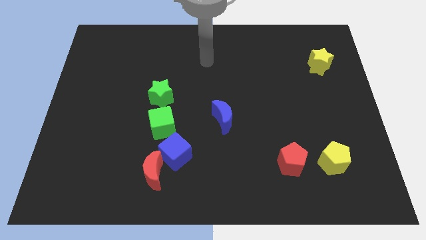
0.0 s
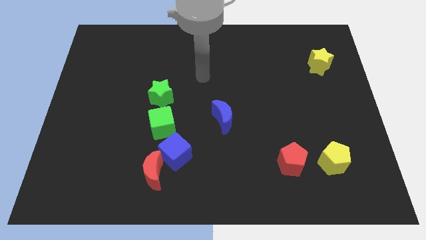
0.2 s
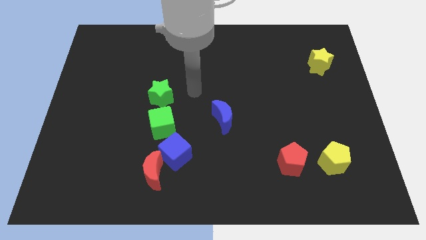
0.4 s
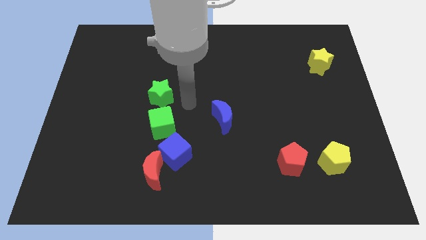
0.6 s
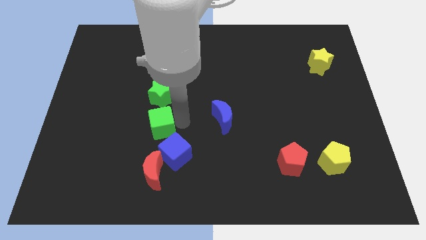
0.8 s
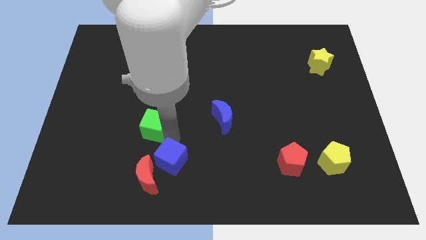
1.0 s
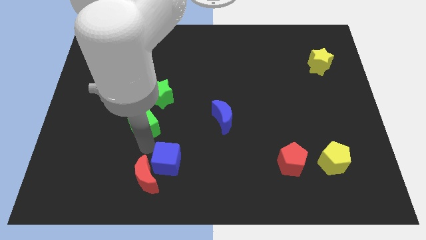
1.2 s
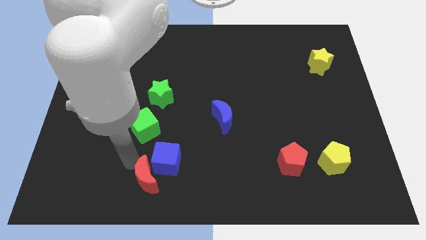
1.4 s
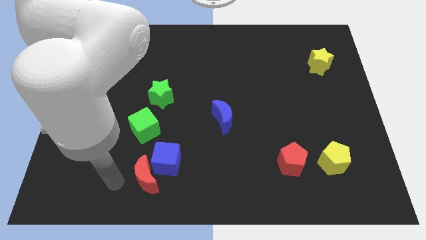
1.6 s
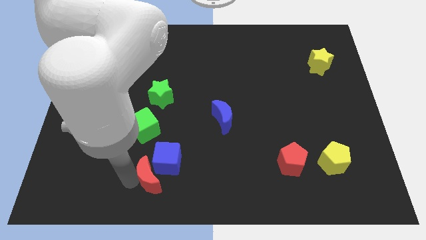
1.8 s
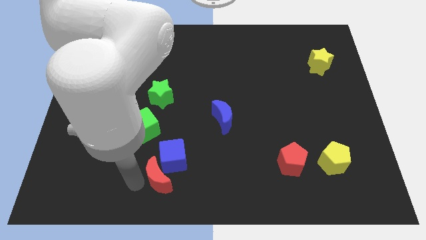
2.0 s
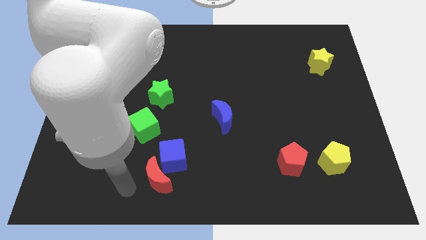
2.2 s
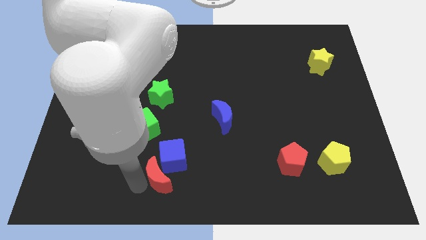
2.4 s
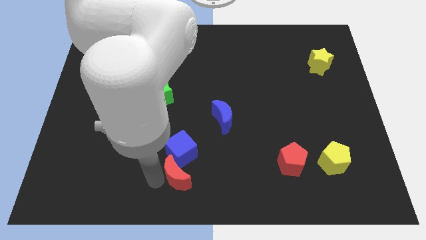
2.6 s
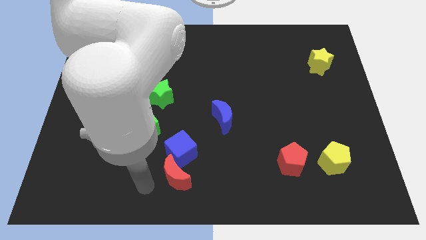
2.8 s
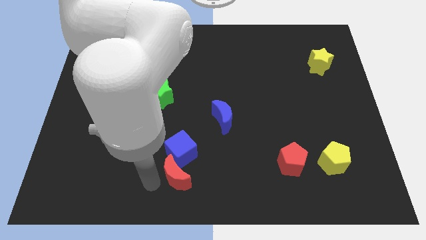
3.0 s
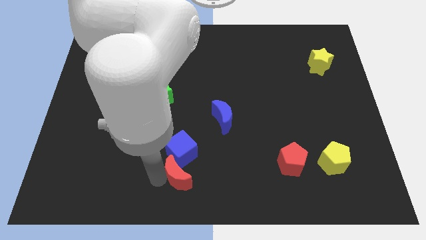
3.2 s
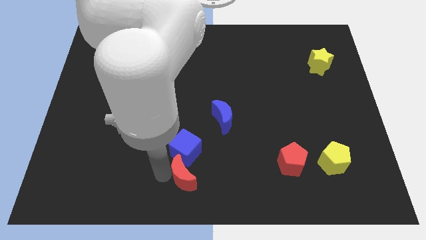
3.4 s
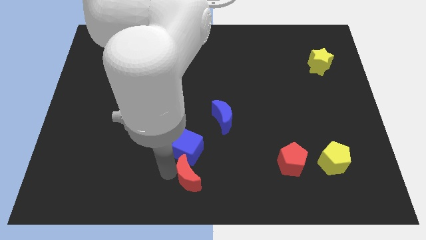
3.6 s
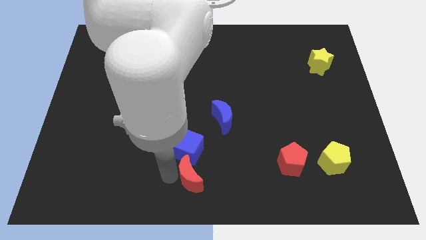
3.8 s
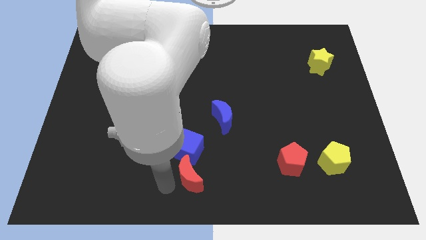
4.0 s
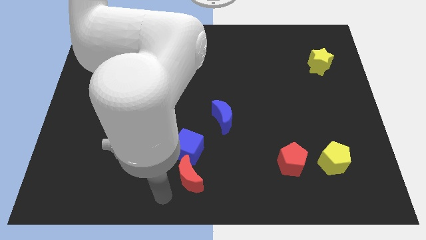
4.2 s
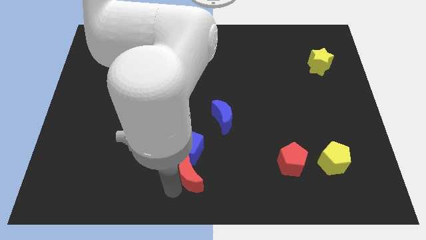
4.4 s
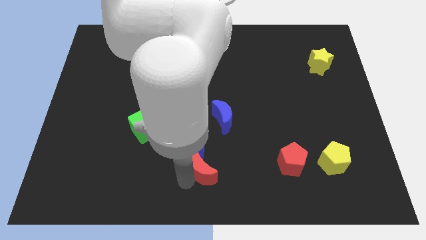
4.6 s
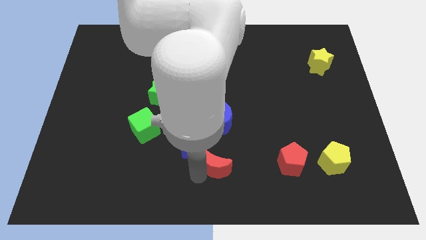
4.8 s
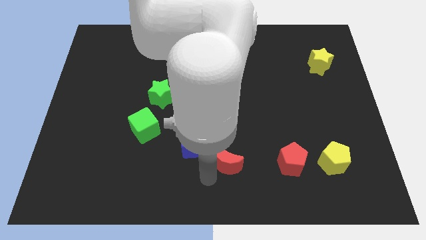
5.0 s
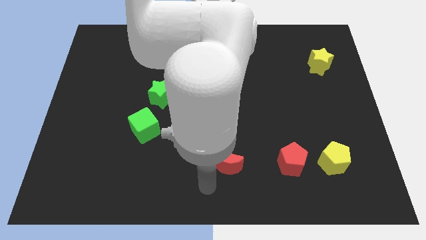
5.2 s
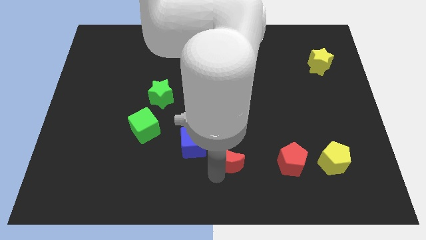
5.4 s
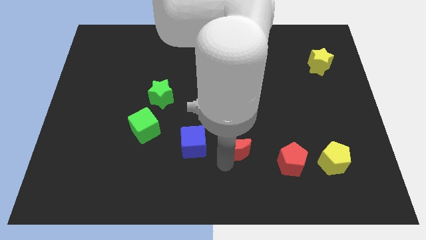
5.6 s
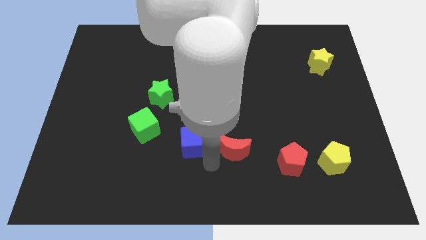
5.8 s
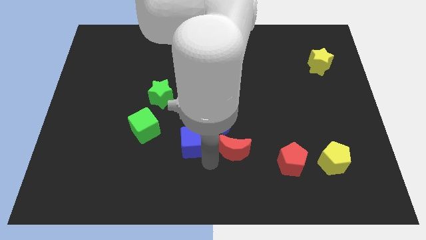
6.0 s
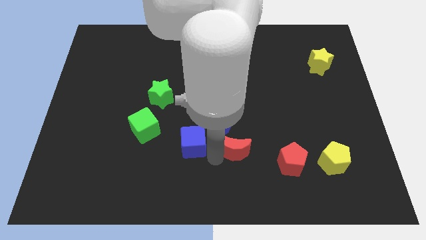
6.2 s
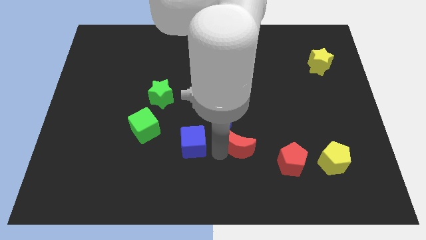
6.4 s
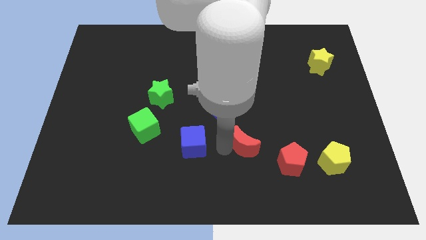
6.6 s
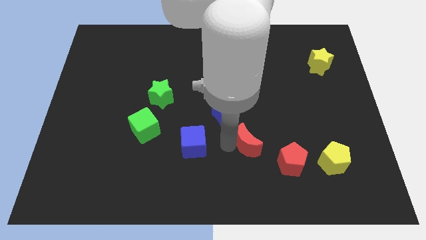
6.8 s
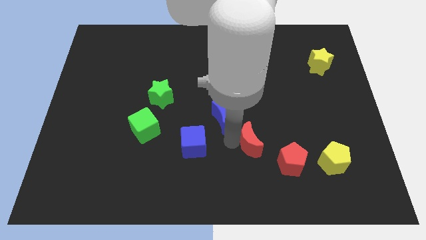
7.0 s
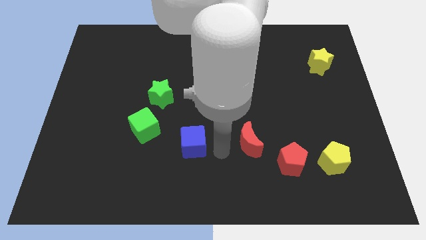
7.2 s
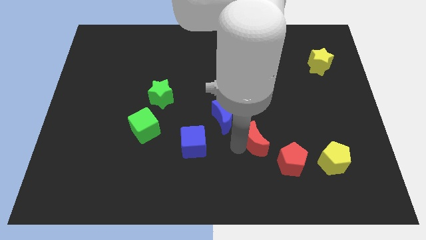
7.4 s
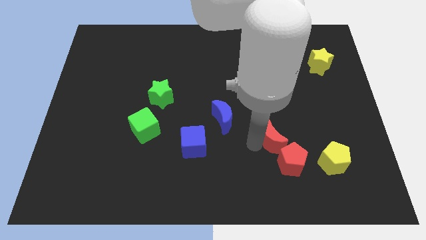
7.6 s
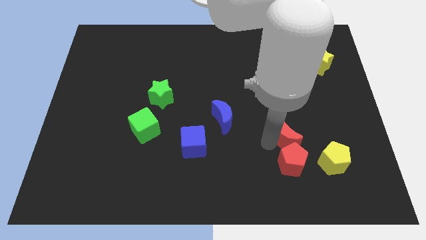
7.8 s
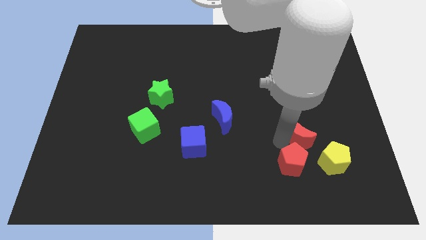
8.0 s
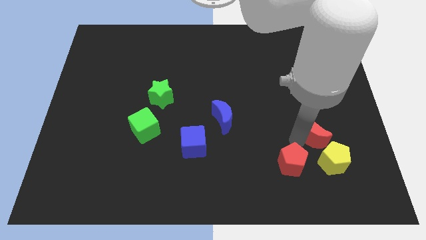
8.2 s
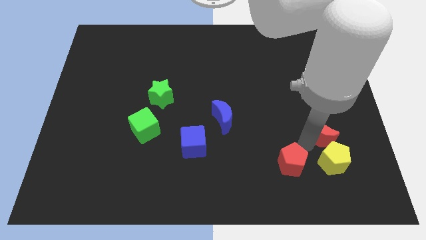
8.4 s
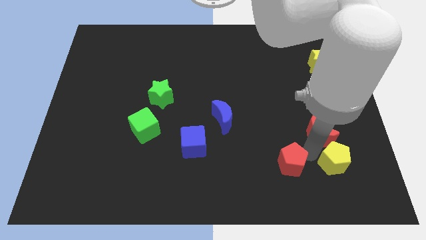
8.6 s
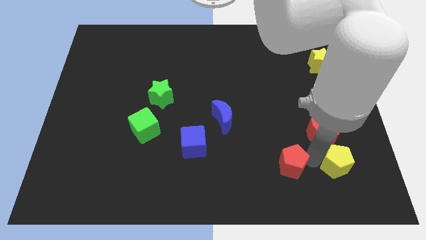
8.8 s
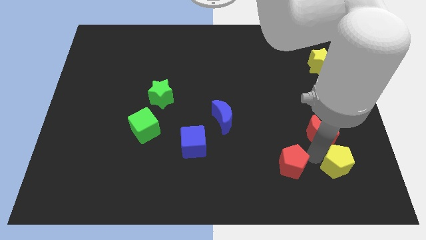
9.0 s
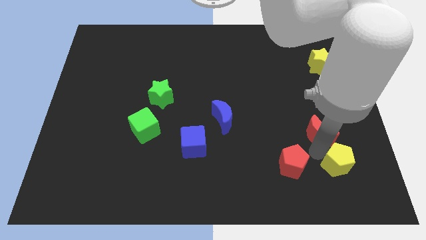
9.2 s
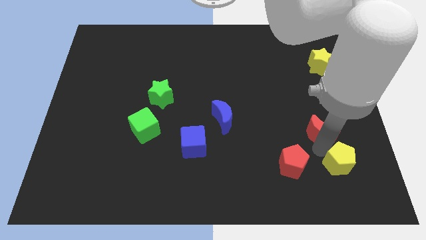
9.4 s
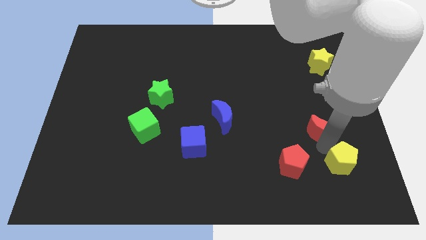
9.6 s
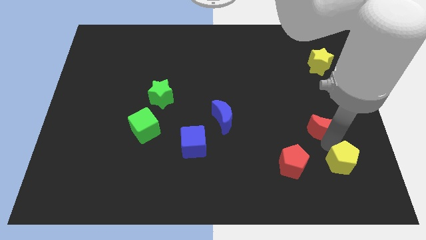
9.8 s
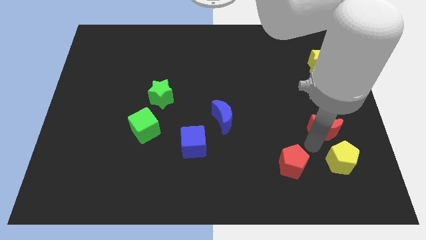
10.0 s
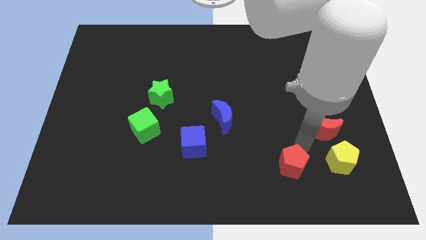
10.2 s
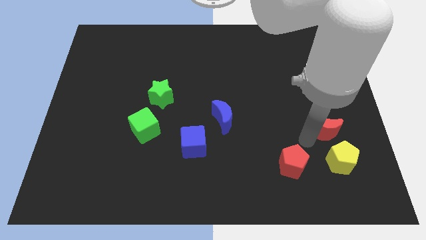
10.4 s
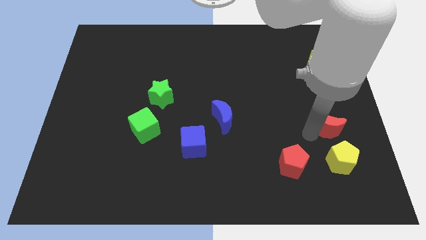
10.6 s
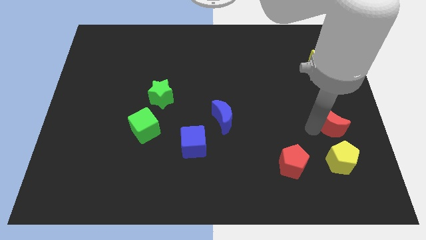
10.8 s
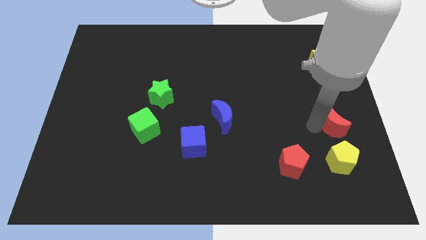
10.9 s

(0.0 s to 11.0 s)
put the red moon to the right side

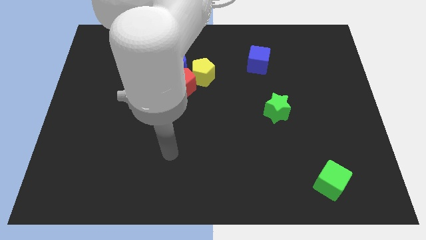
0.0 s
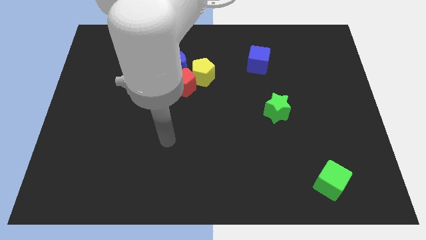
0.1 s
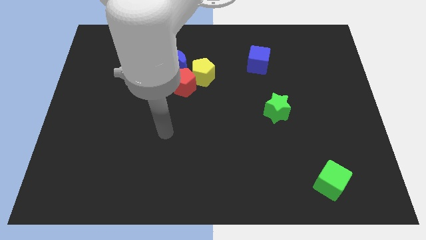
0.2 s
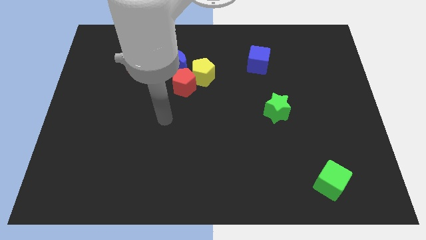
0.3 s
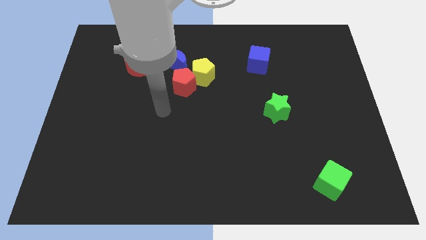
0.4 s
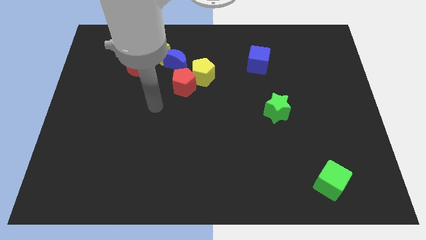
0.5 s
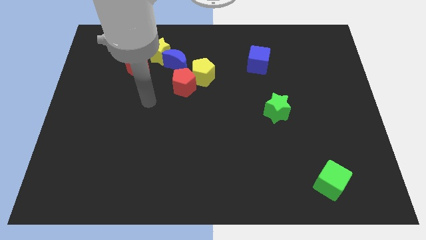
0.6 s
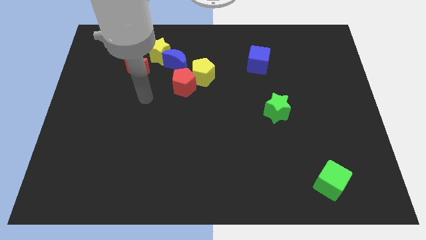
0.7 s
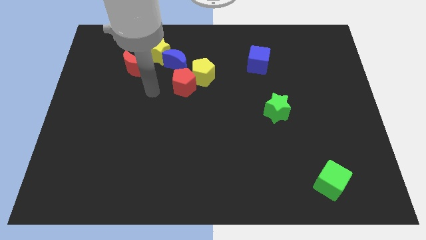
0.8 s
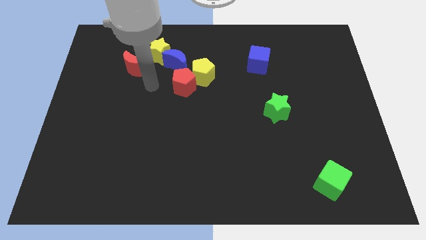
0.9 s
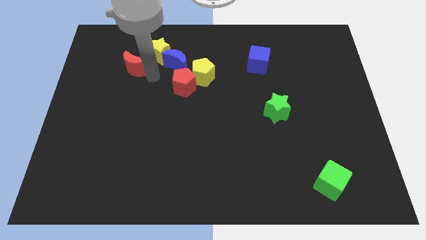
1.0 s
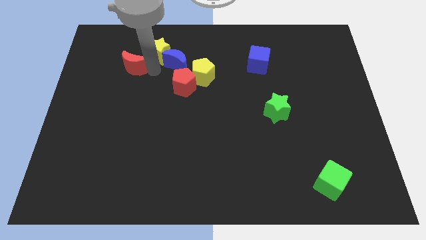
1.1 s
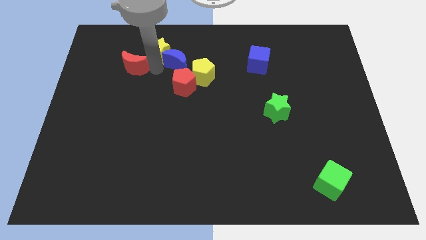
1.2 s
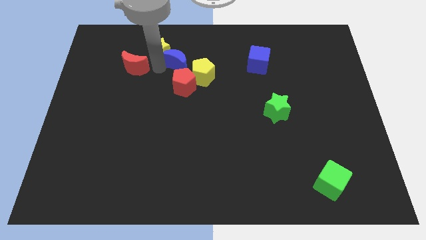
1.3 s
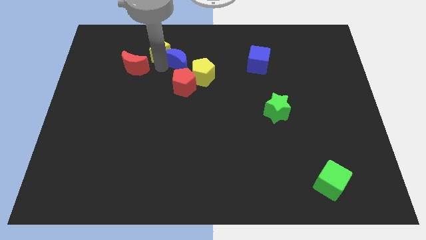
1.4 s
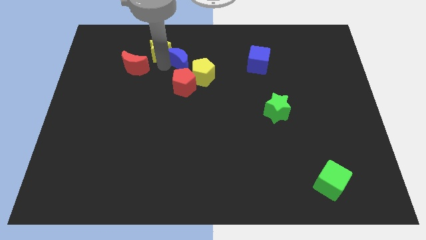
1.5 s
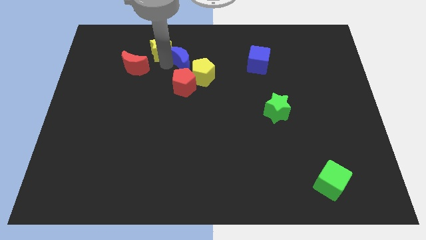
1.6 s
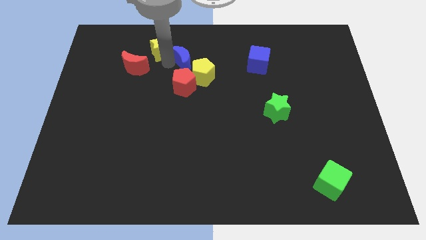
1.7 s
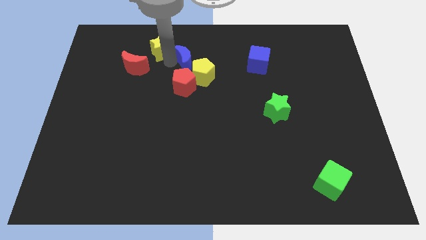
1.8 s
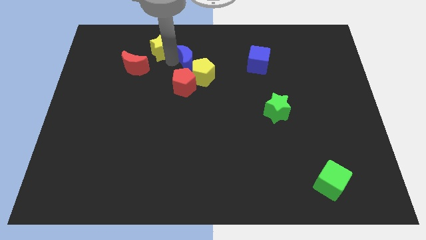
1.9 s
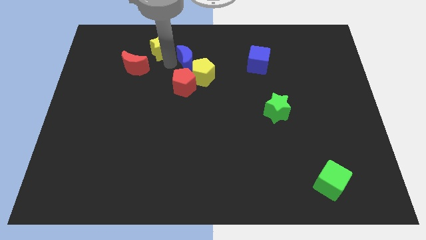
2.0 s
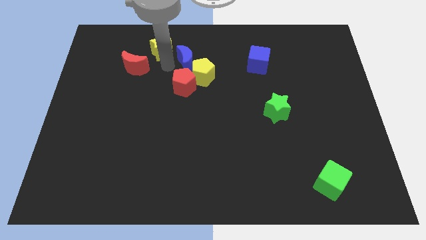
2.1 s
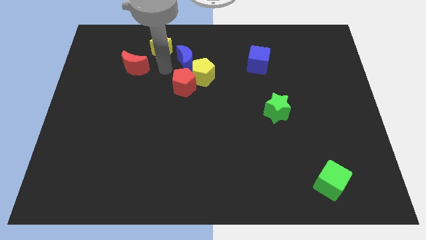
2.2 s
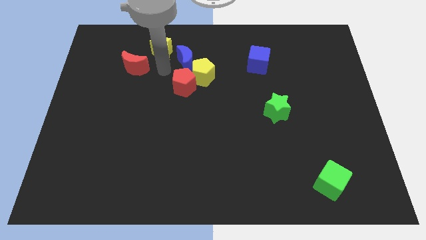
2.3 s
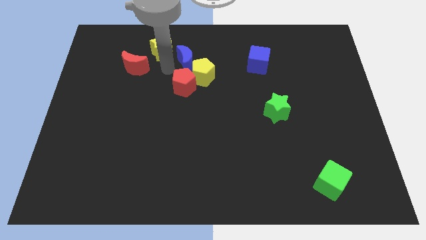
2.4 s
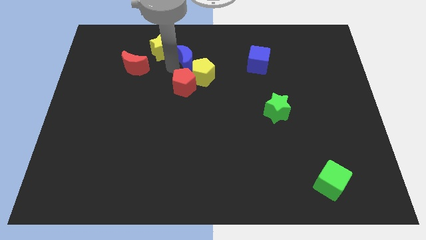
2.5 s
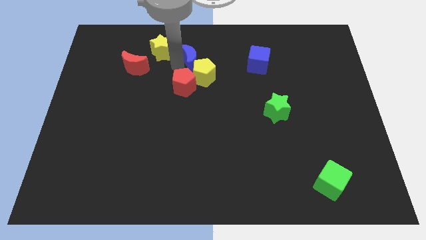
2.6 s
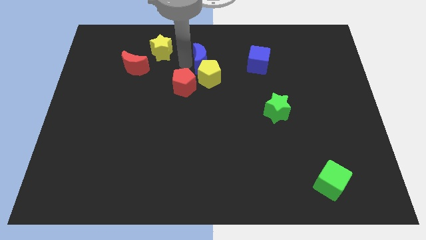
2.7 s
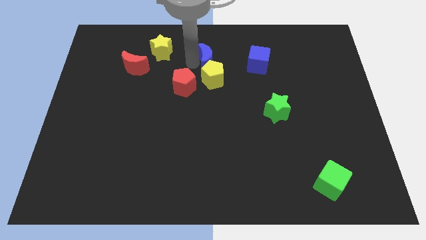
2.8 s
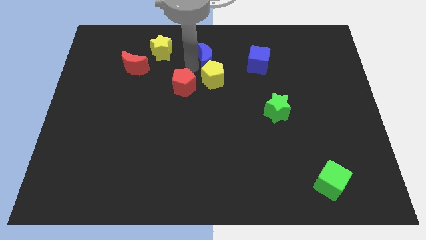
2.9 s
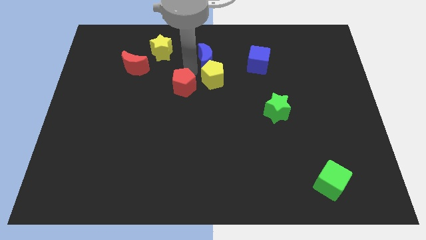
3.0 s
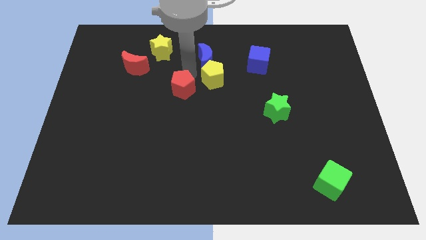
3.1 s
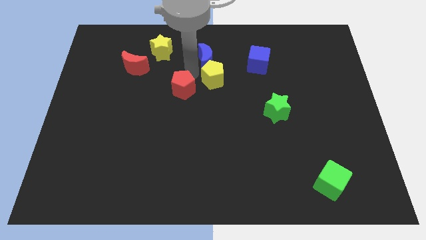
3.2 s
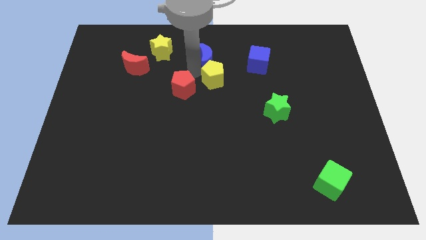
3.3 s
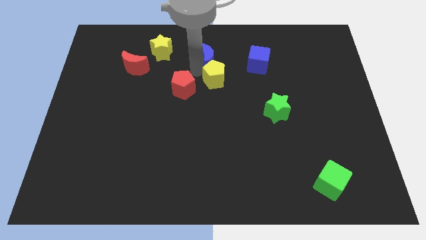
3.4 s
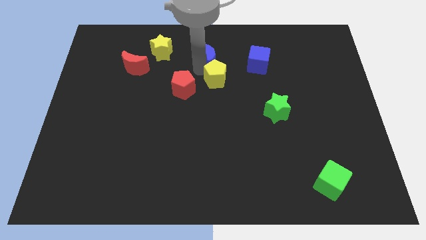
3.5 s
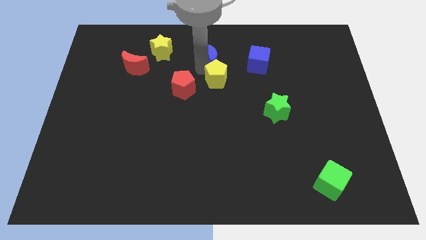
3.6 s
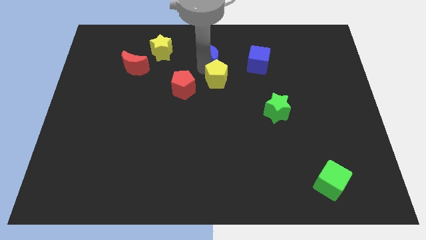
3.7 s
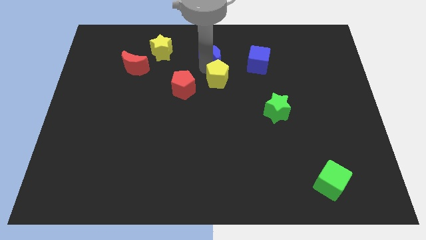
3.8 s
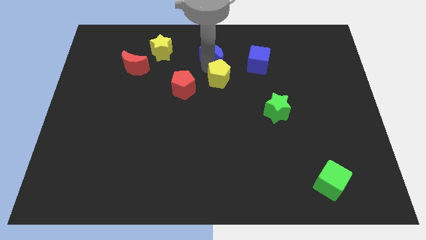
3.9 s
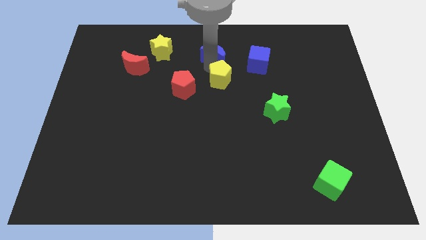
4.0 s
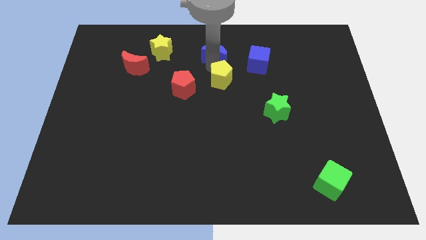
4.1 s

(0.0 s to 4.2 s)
put the blue moon to the towards your base
